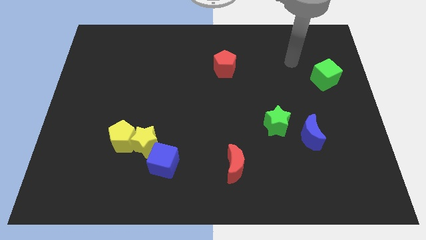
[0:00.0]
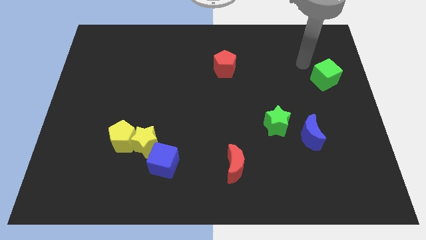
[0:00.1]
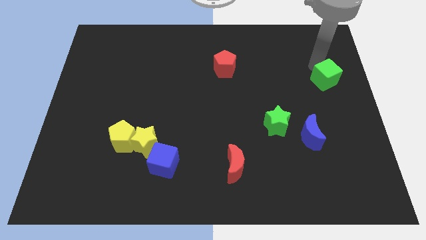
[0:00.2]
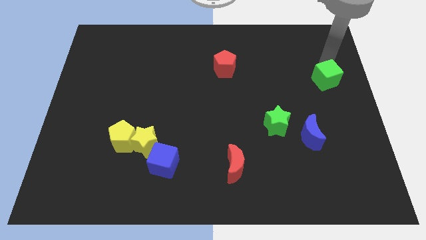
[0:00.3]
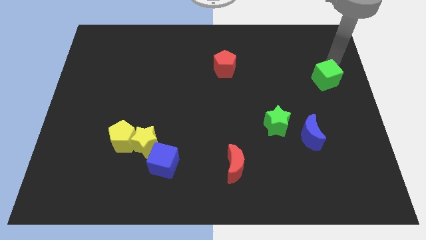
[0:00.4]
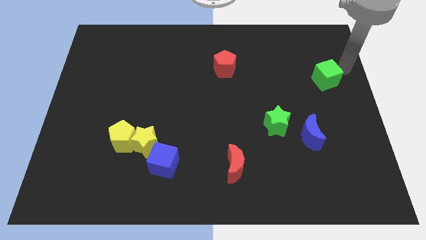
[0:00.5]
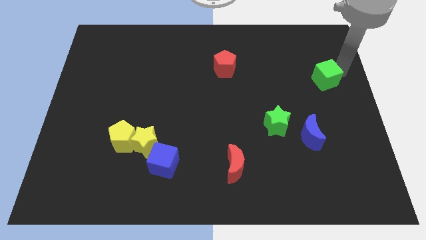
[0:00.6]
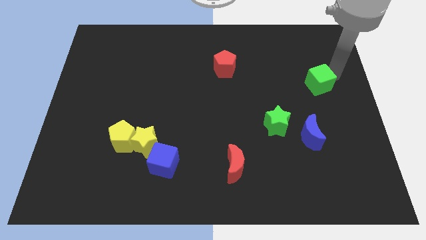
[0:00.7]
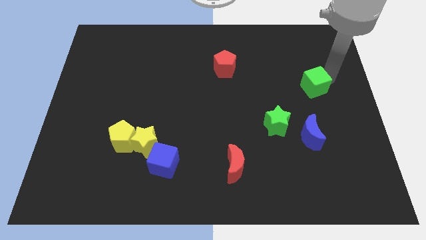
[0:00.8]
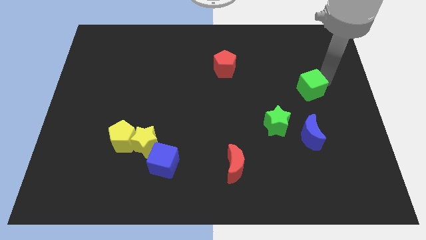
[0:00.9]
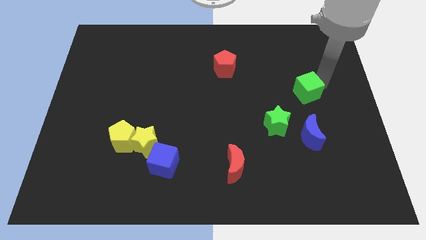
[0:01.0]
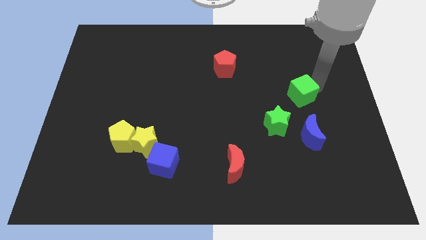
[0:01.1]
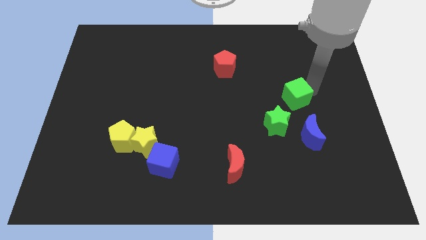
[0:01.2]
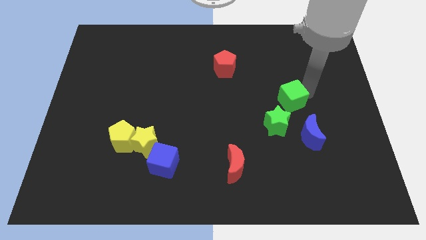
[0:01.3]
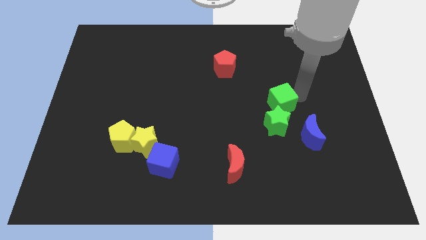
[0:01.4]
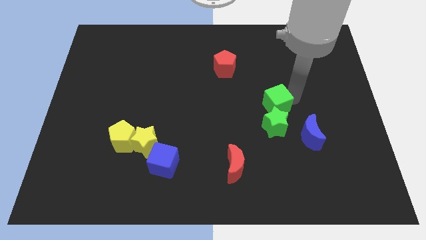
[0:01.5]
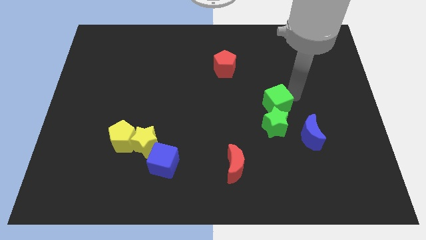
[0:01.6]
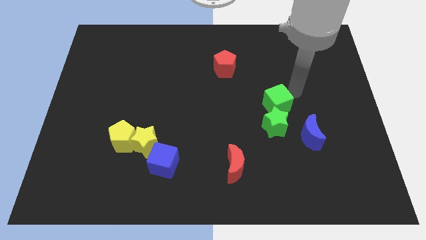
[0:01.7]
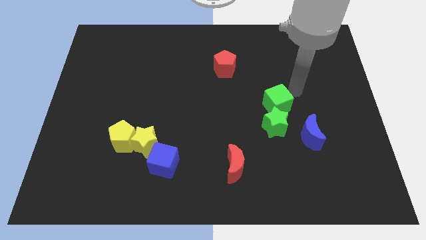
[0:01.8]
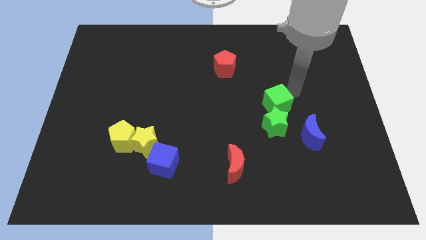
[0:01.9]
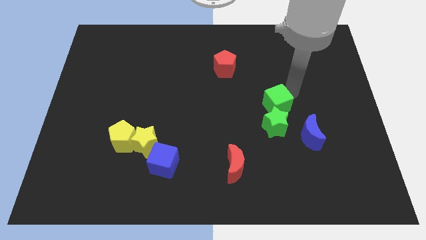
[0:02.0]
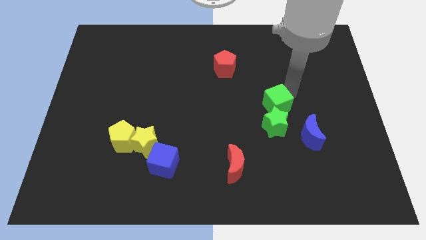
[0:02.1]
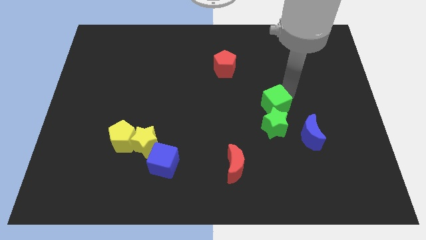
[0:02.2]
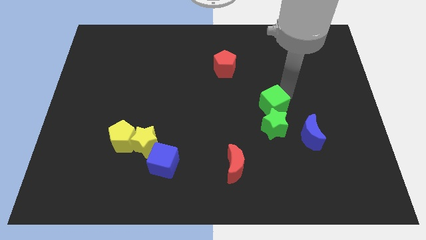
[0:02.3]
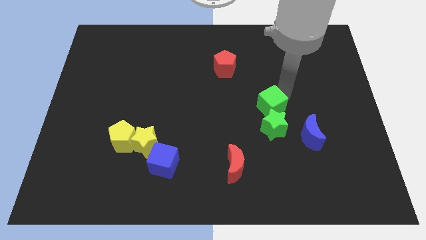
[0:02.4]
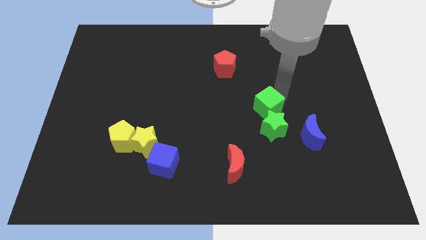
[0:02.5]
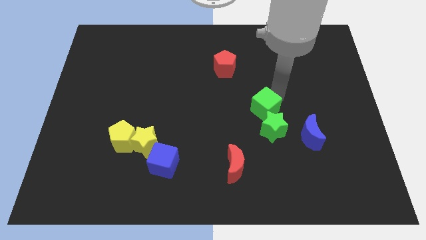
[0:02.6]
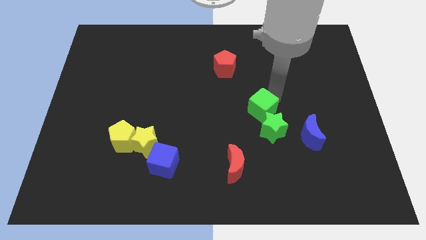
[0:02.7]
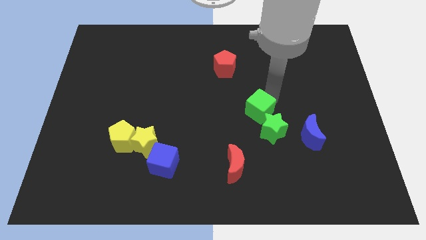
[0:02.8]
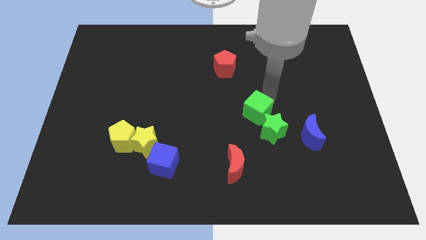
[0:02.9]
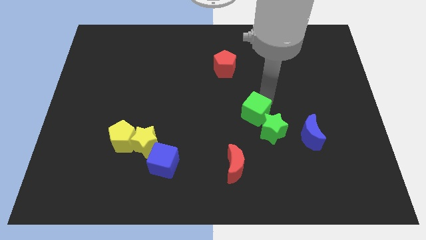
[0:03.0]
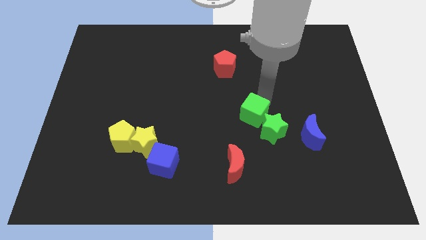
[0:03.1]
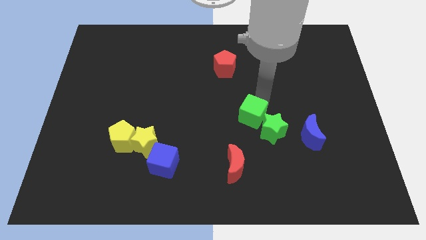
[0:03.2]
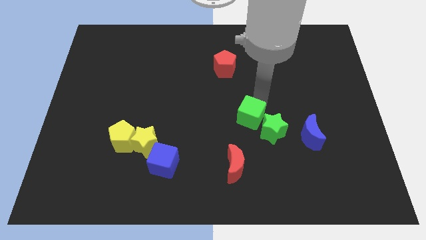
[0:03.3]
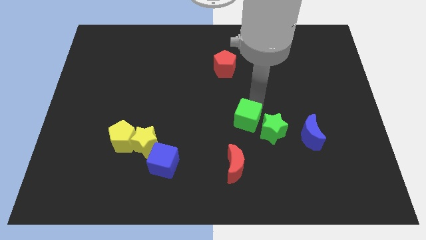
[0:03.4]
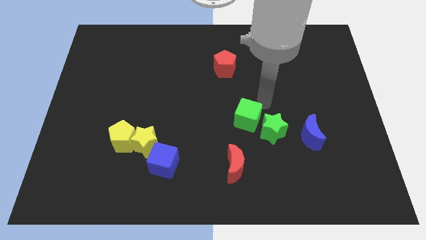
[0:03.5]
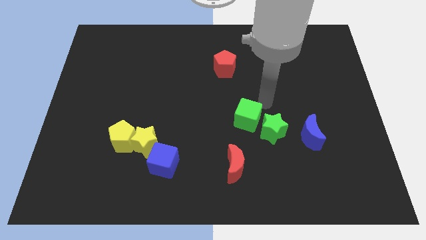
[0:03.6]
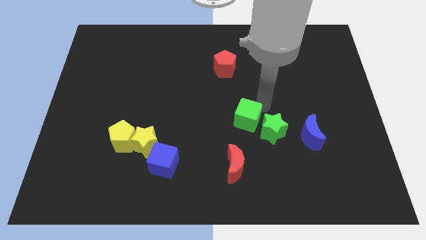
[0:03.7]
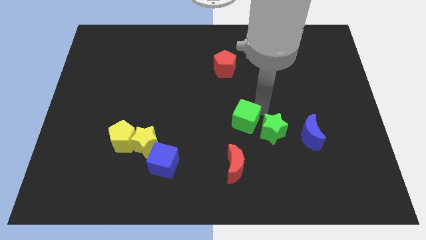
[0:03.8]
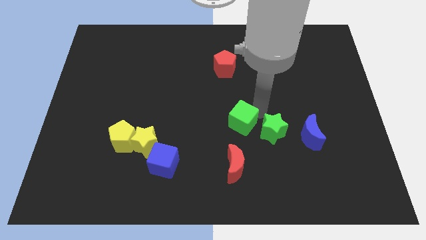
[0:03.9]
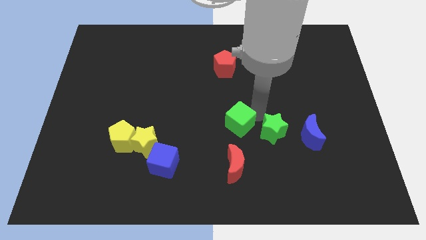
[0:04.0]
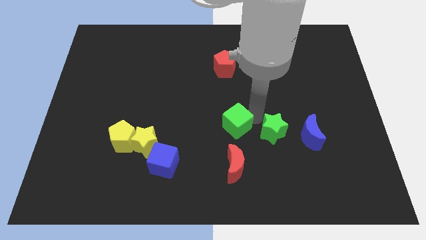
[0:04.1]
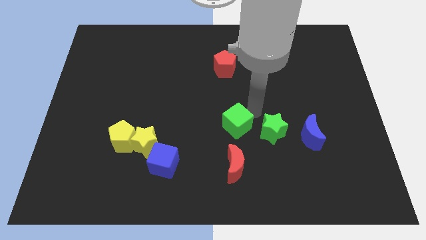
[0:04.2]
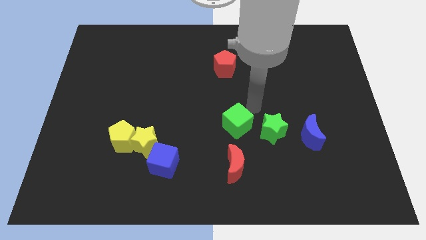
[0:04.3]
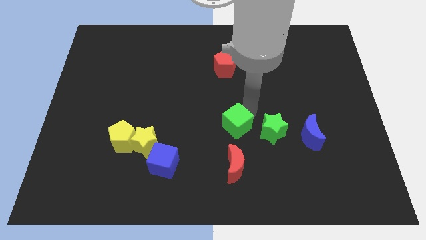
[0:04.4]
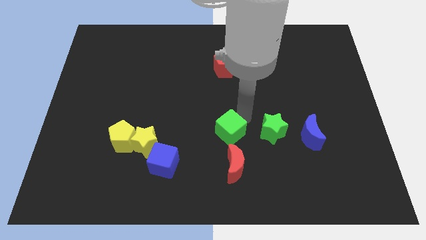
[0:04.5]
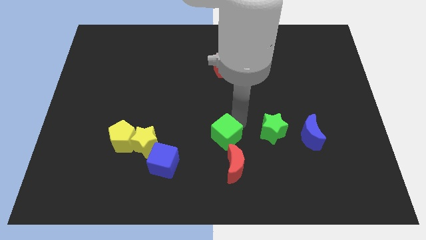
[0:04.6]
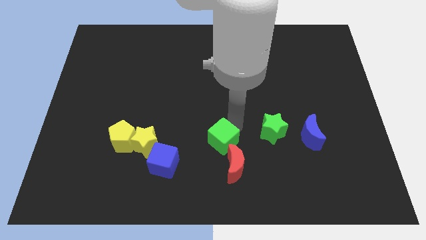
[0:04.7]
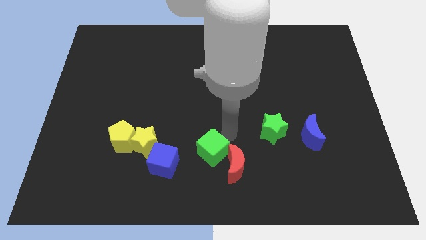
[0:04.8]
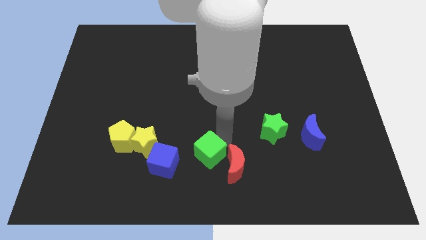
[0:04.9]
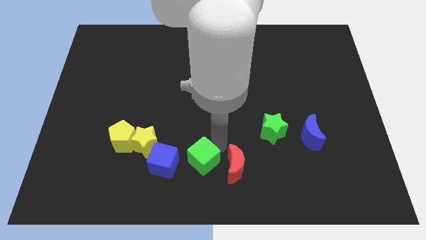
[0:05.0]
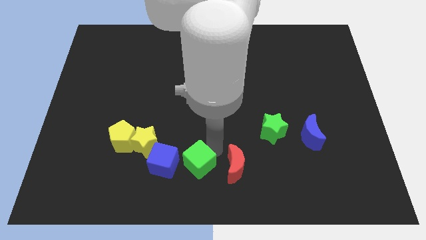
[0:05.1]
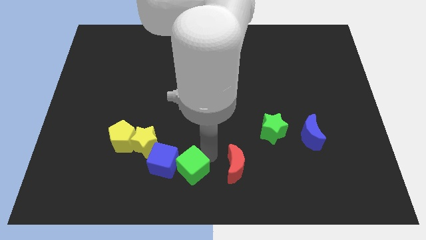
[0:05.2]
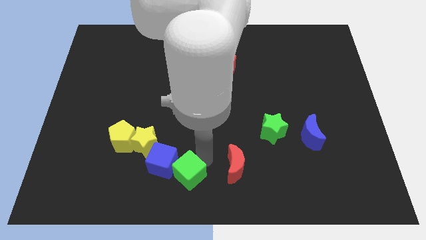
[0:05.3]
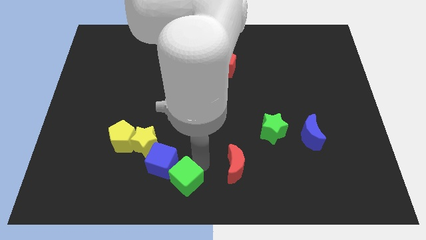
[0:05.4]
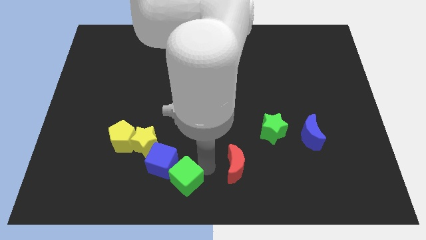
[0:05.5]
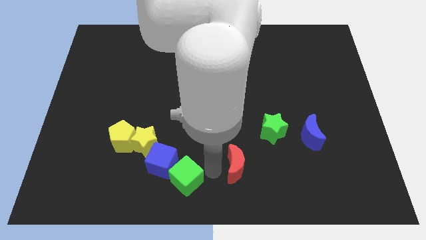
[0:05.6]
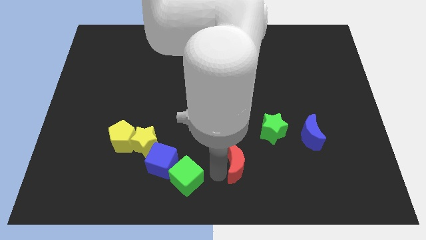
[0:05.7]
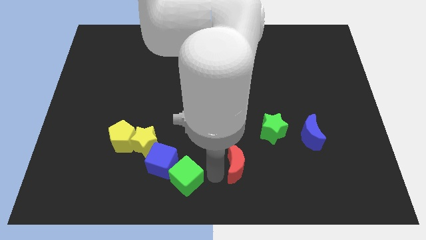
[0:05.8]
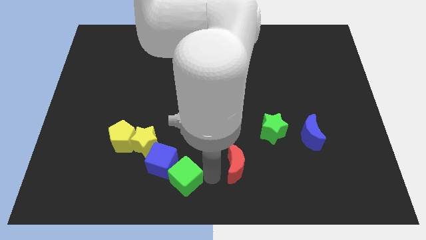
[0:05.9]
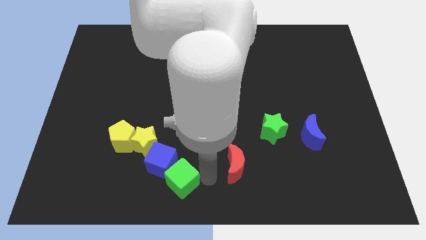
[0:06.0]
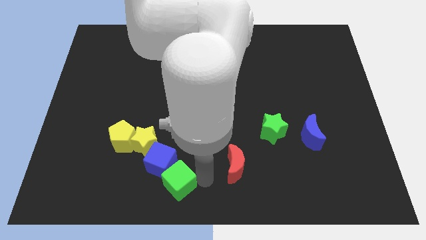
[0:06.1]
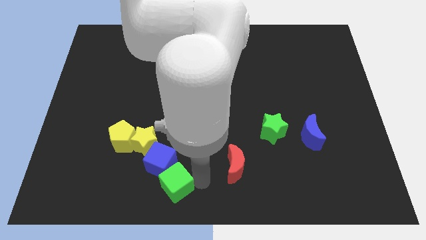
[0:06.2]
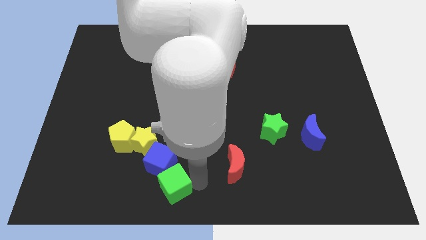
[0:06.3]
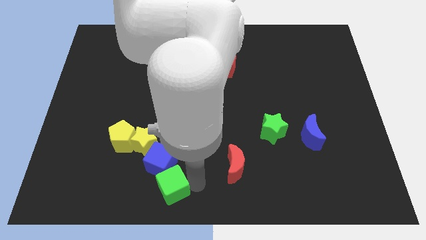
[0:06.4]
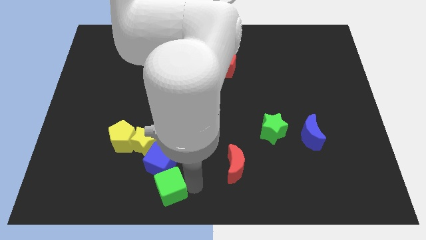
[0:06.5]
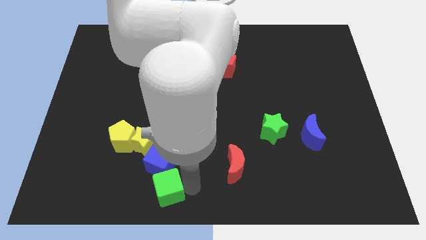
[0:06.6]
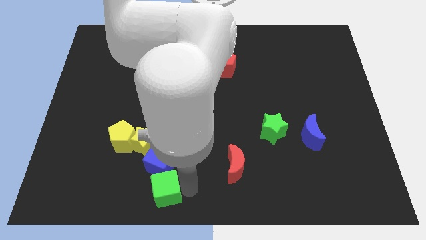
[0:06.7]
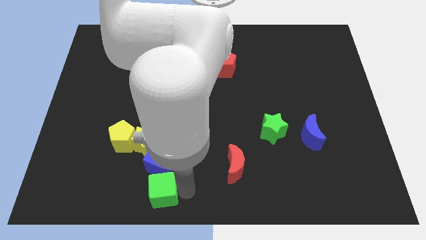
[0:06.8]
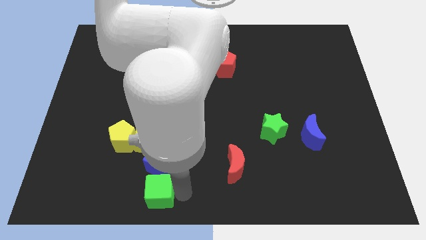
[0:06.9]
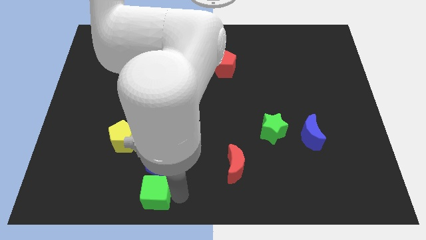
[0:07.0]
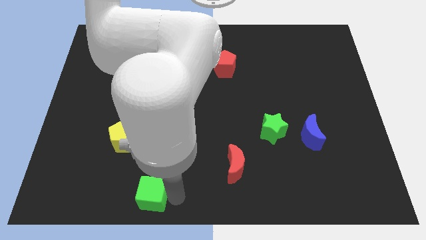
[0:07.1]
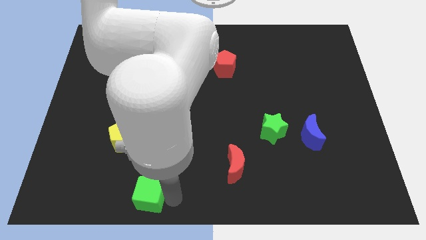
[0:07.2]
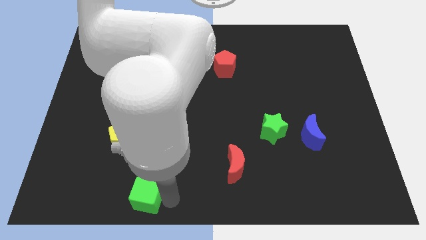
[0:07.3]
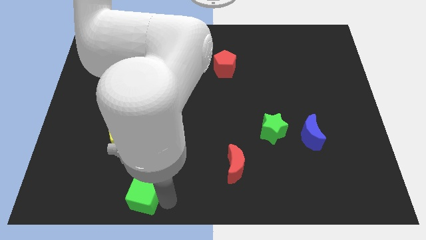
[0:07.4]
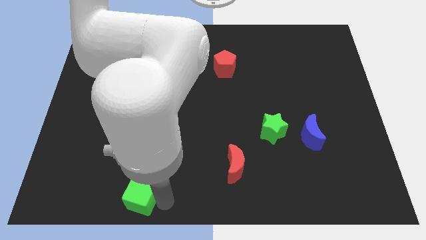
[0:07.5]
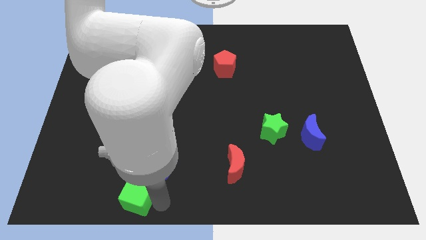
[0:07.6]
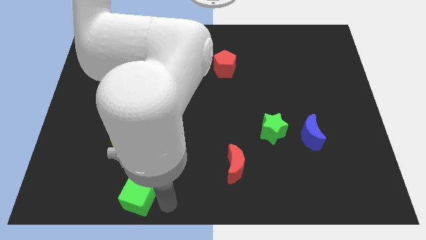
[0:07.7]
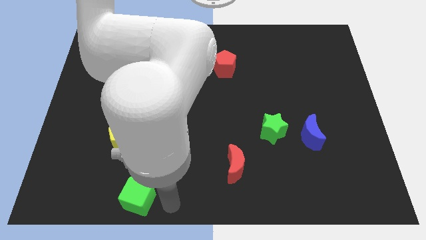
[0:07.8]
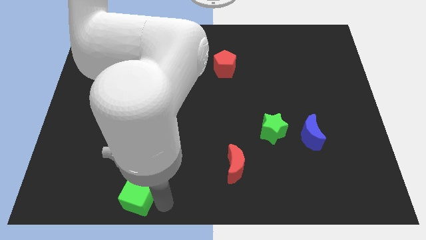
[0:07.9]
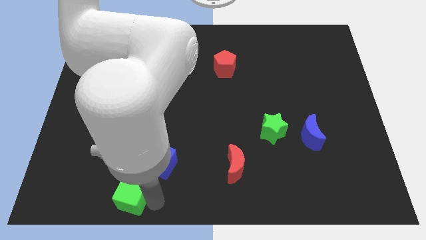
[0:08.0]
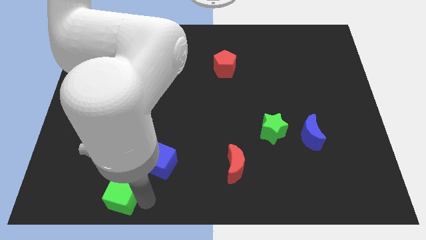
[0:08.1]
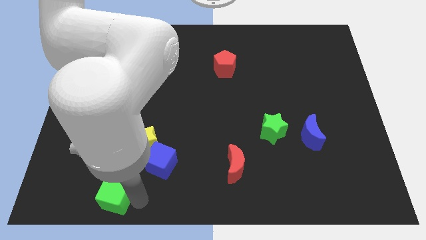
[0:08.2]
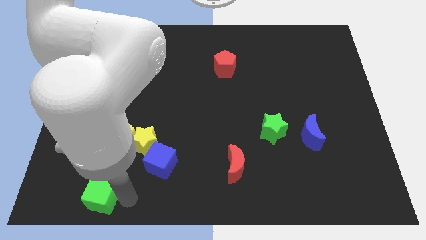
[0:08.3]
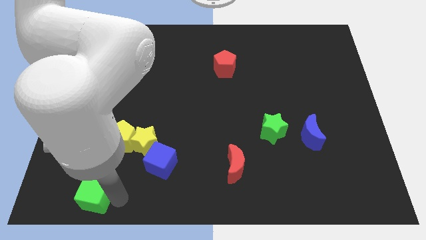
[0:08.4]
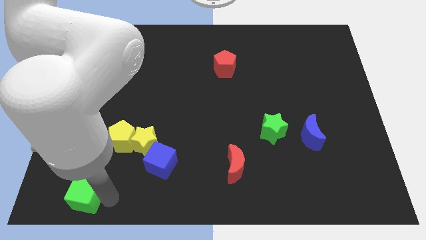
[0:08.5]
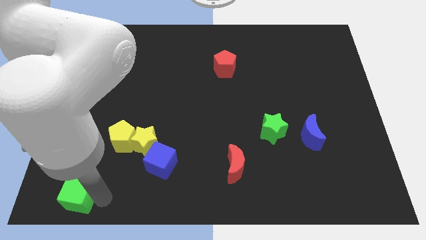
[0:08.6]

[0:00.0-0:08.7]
push the green cube to the lower left corner
